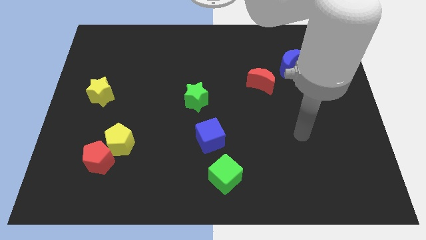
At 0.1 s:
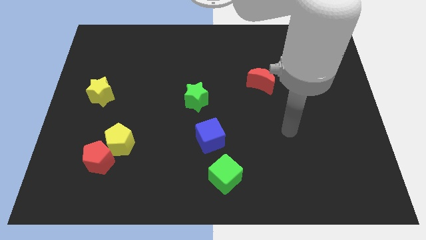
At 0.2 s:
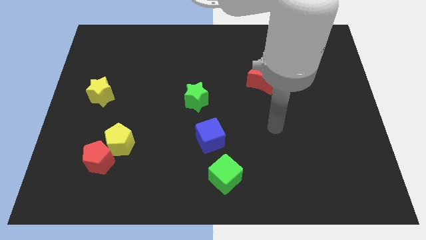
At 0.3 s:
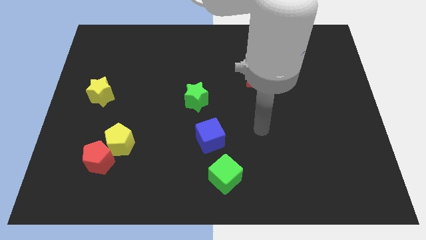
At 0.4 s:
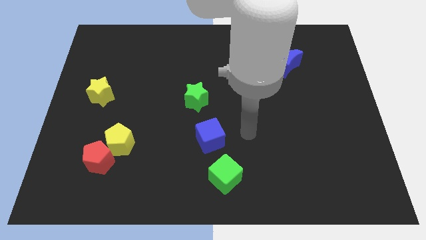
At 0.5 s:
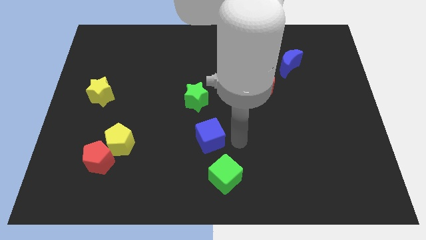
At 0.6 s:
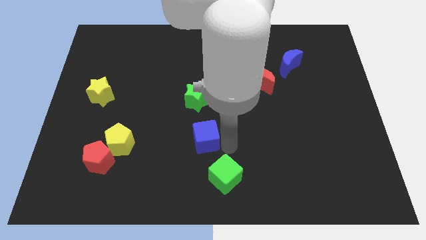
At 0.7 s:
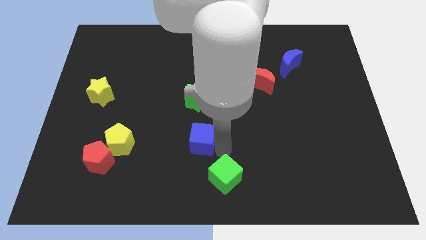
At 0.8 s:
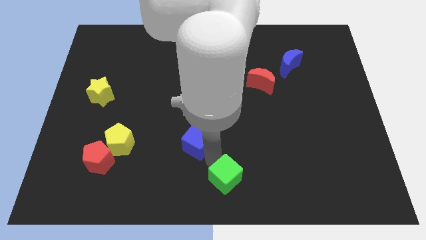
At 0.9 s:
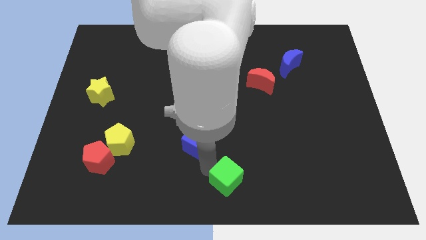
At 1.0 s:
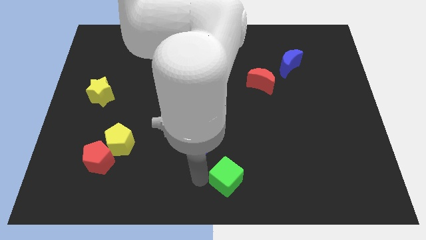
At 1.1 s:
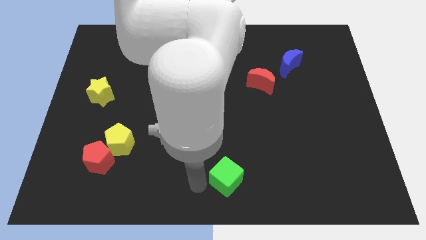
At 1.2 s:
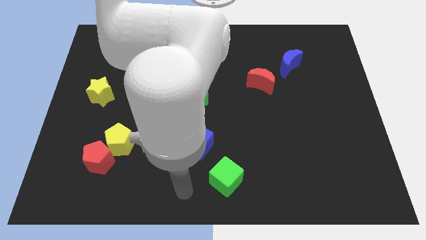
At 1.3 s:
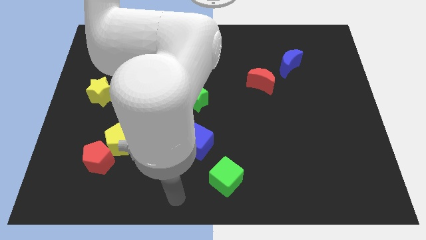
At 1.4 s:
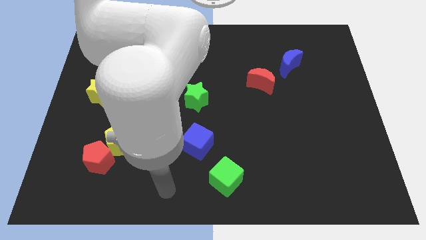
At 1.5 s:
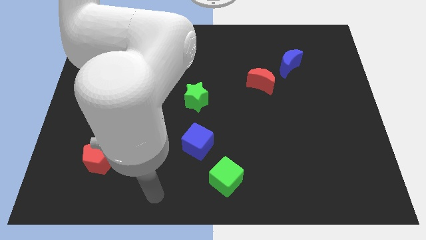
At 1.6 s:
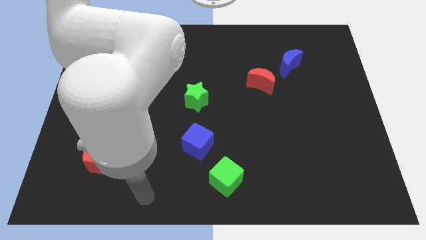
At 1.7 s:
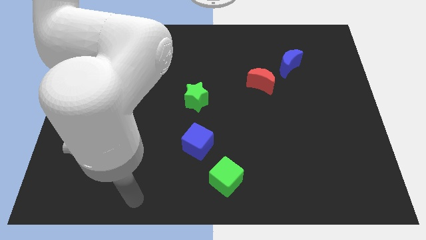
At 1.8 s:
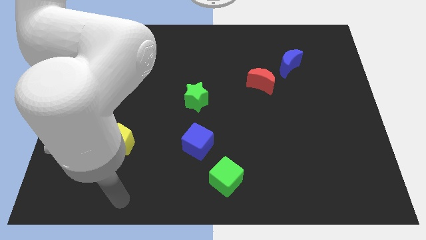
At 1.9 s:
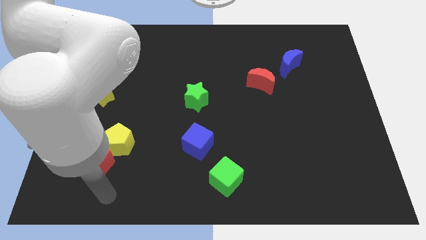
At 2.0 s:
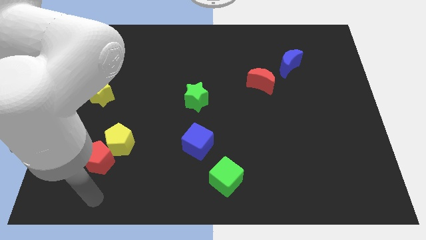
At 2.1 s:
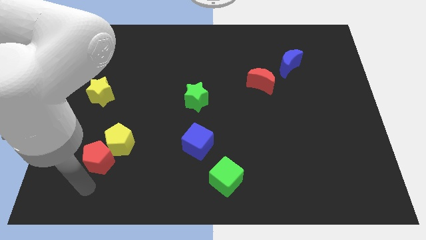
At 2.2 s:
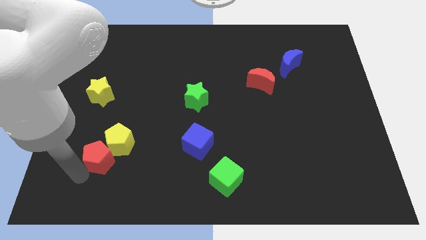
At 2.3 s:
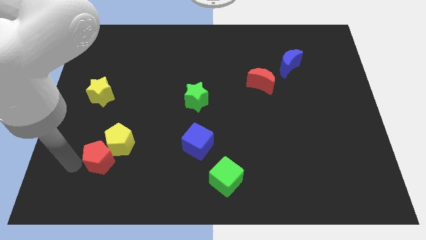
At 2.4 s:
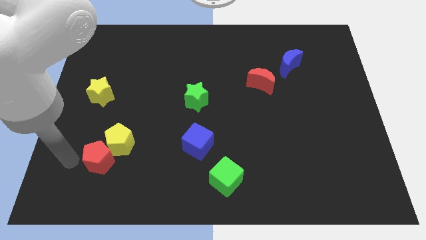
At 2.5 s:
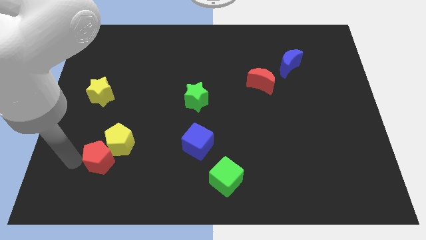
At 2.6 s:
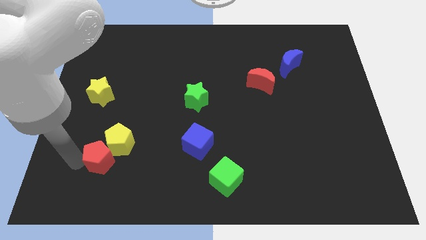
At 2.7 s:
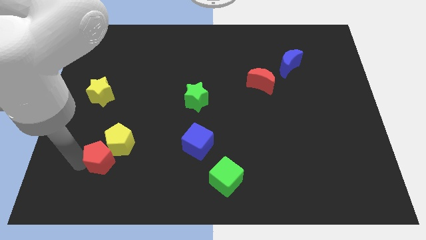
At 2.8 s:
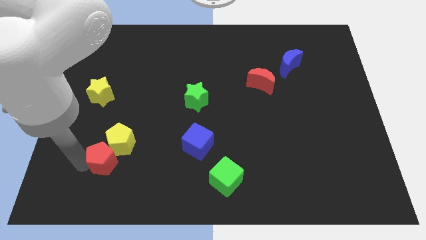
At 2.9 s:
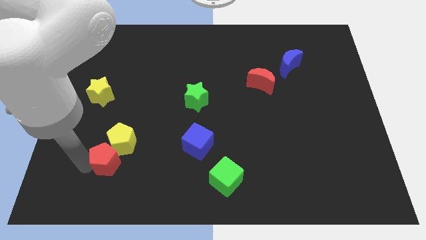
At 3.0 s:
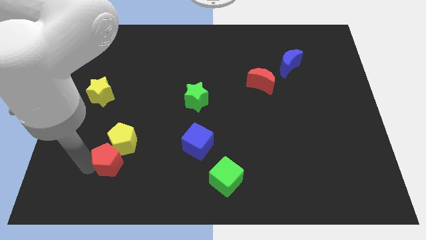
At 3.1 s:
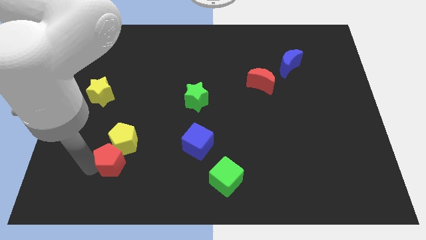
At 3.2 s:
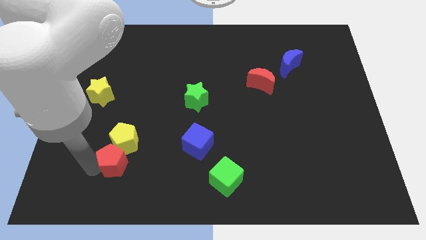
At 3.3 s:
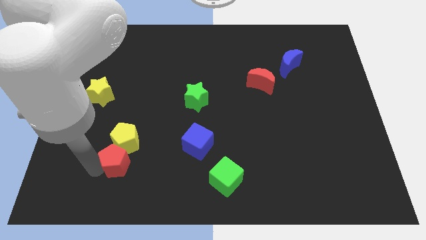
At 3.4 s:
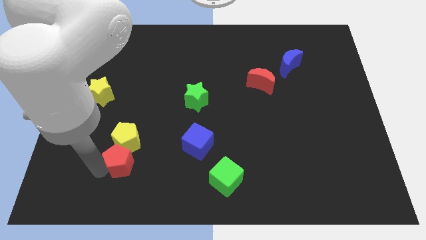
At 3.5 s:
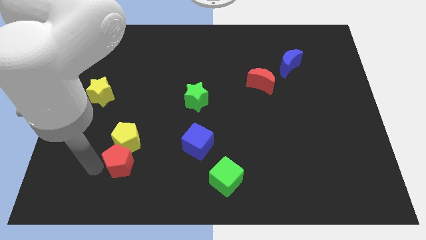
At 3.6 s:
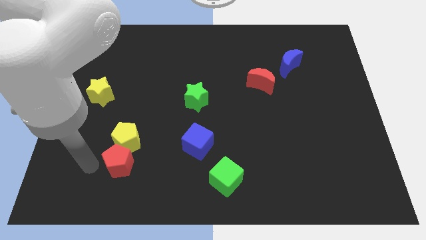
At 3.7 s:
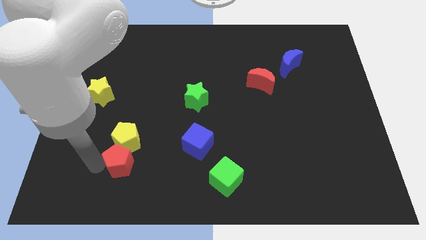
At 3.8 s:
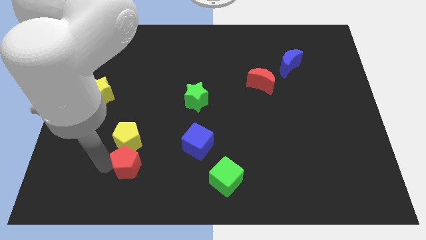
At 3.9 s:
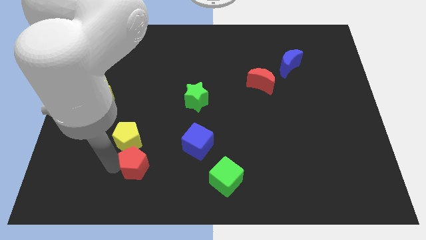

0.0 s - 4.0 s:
push the red pentagon a bit to the right

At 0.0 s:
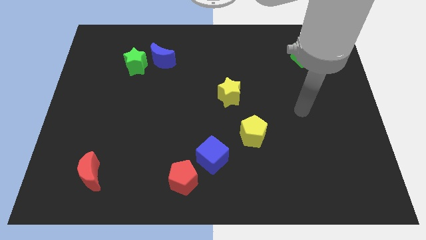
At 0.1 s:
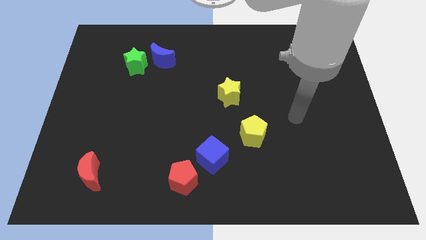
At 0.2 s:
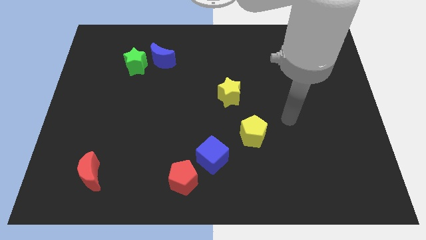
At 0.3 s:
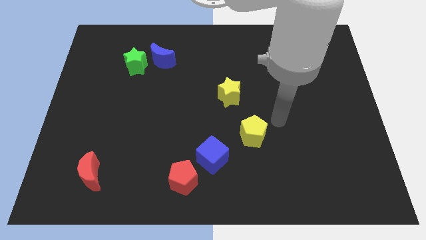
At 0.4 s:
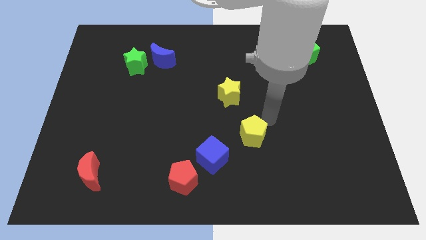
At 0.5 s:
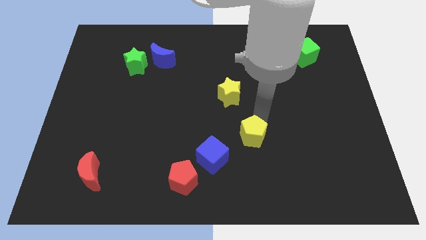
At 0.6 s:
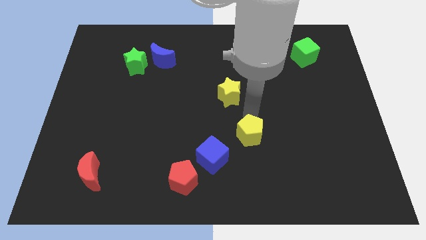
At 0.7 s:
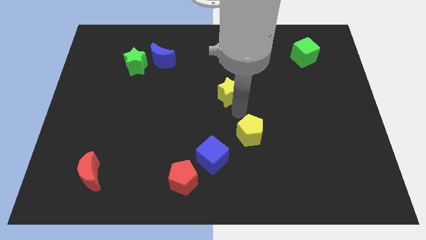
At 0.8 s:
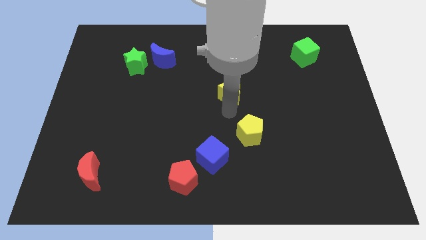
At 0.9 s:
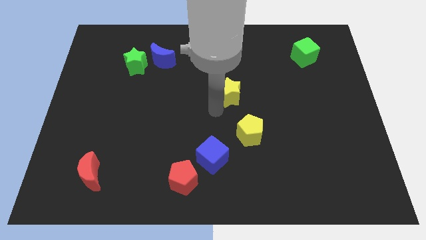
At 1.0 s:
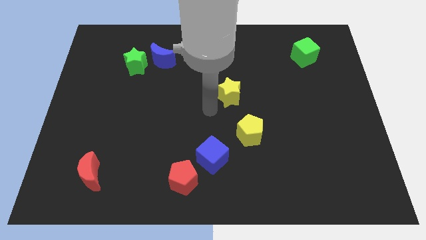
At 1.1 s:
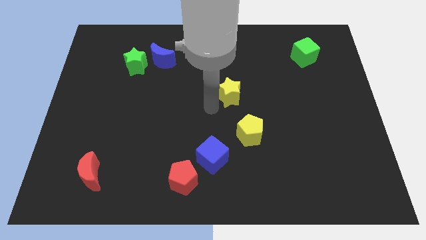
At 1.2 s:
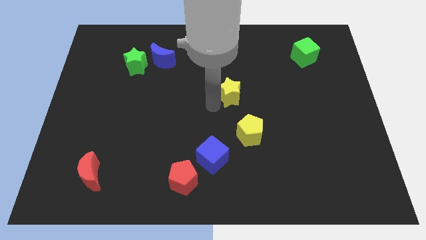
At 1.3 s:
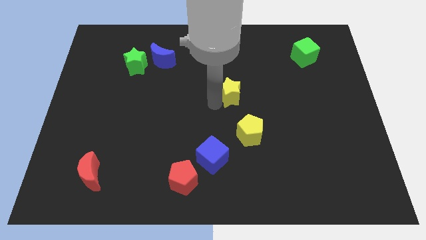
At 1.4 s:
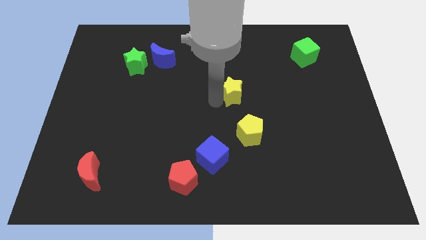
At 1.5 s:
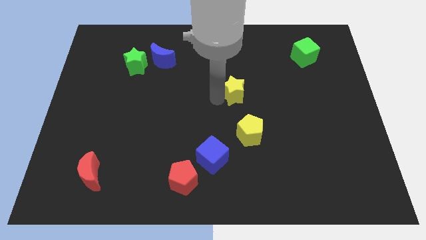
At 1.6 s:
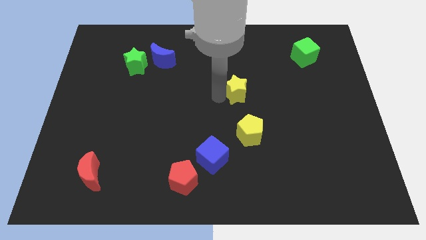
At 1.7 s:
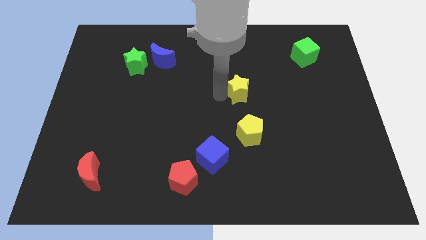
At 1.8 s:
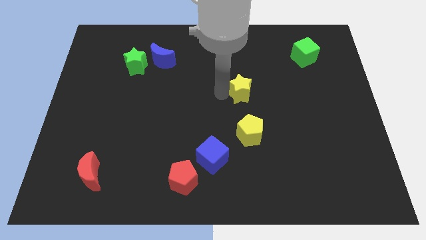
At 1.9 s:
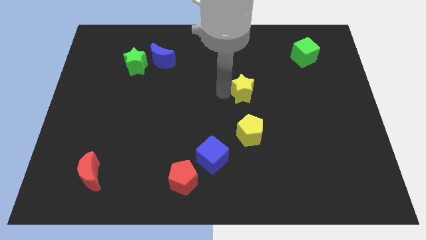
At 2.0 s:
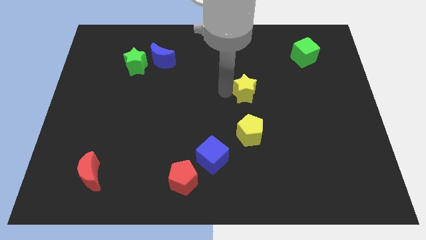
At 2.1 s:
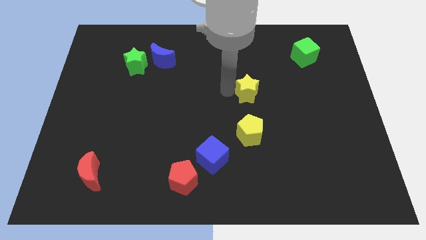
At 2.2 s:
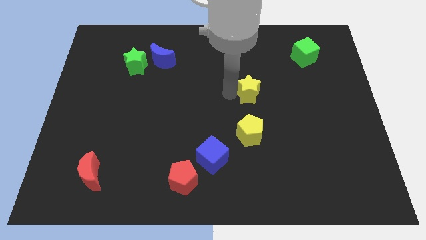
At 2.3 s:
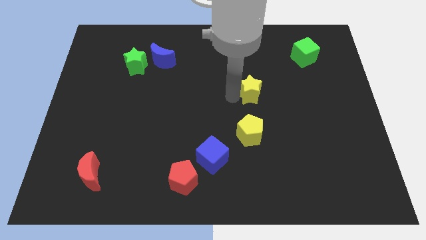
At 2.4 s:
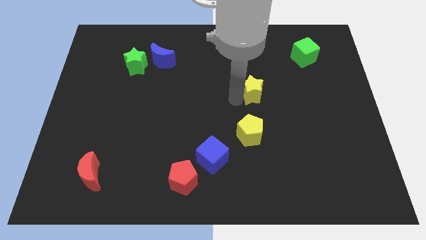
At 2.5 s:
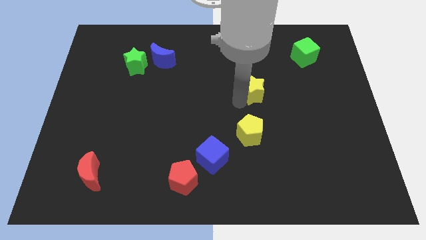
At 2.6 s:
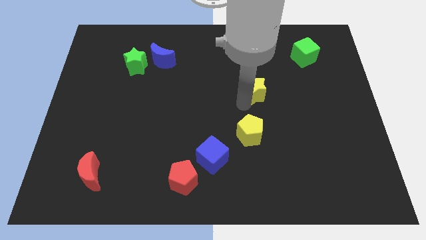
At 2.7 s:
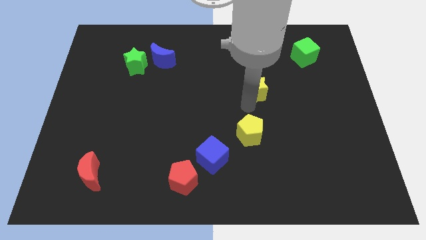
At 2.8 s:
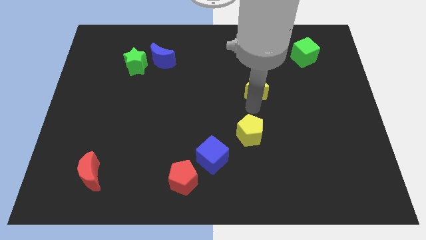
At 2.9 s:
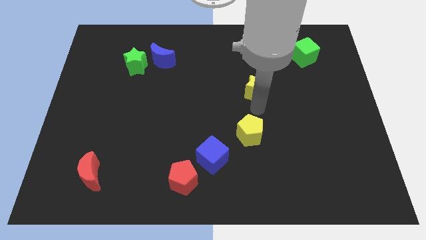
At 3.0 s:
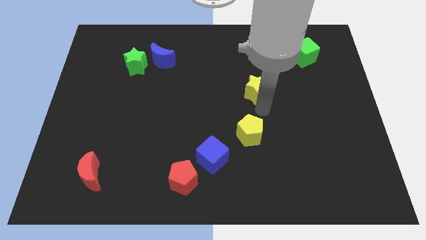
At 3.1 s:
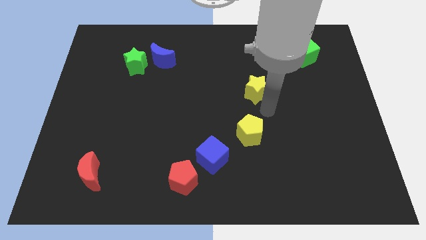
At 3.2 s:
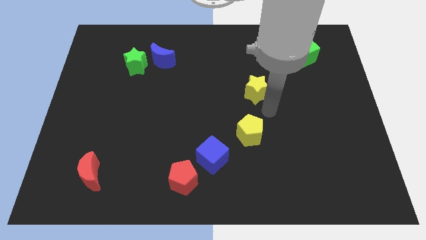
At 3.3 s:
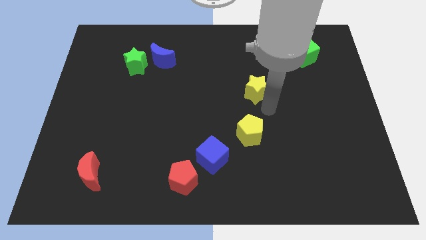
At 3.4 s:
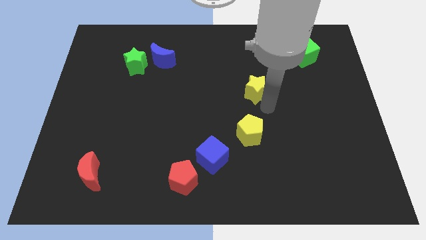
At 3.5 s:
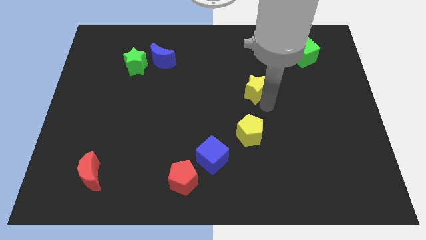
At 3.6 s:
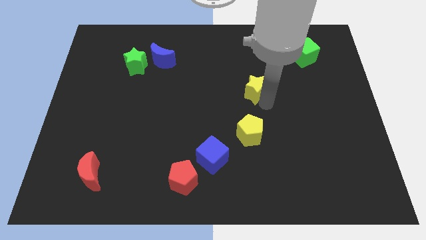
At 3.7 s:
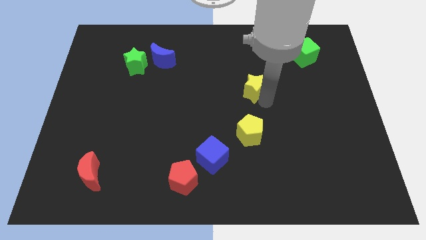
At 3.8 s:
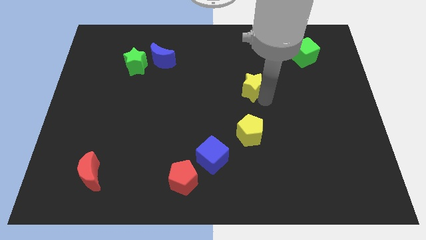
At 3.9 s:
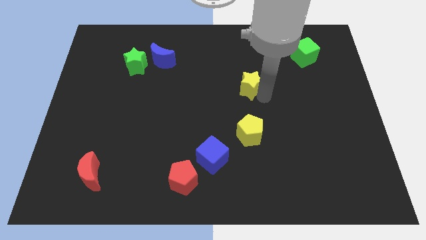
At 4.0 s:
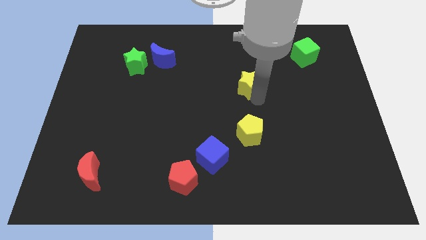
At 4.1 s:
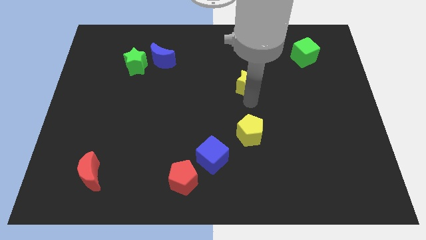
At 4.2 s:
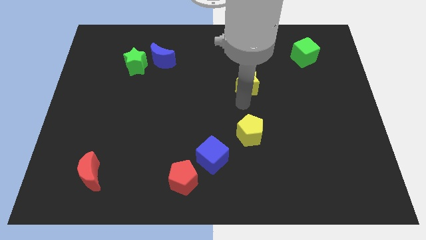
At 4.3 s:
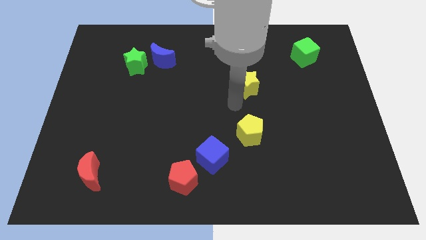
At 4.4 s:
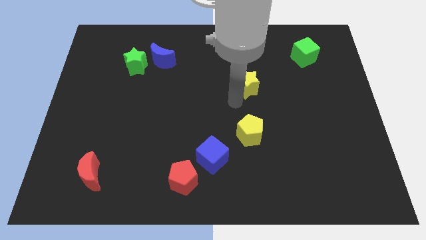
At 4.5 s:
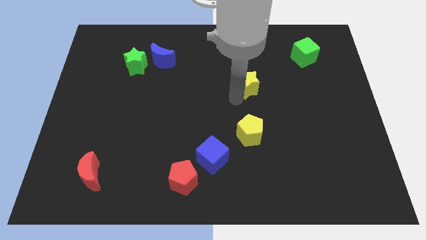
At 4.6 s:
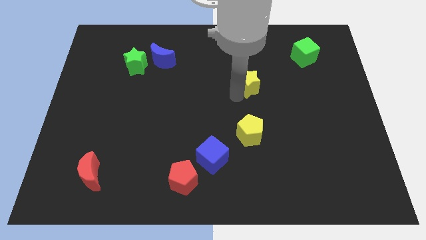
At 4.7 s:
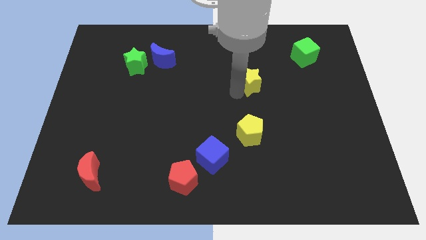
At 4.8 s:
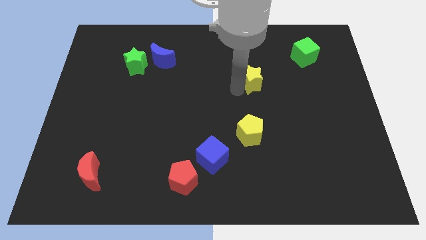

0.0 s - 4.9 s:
slightly slide the yellow star diagonally up and right
